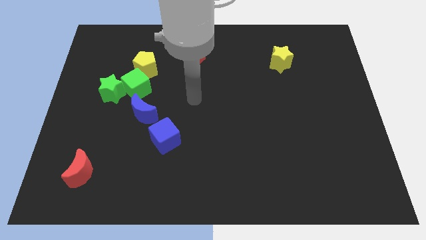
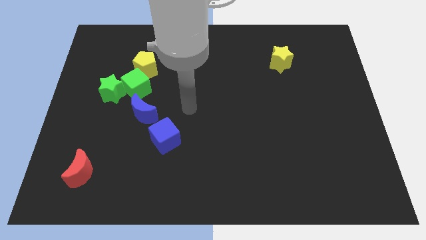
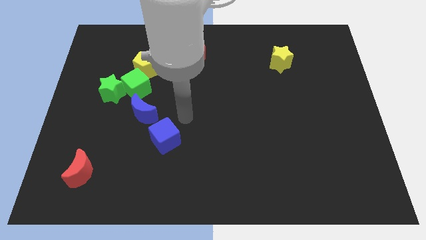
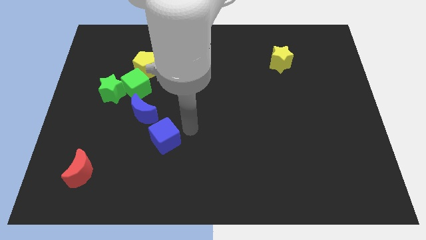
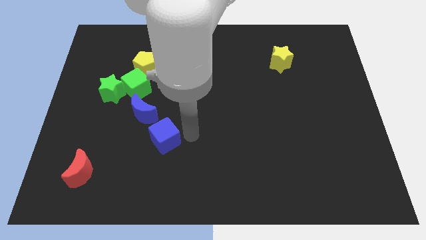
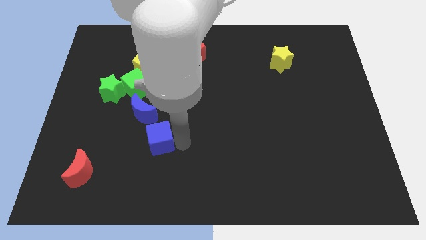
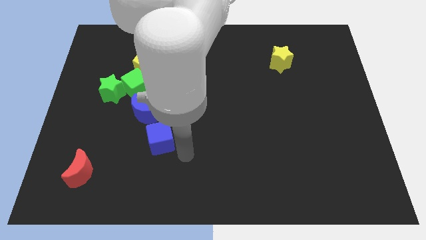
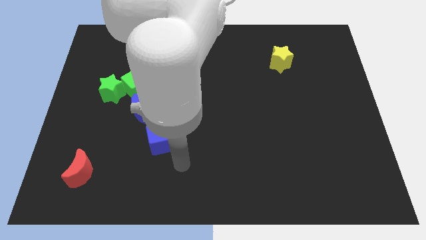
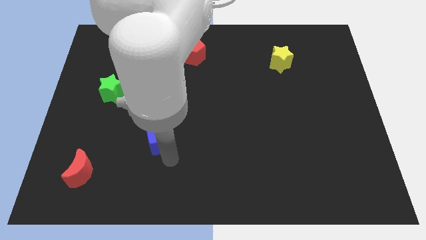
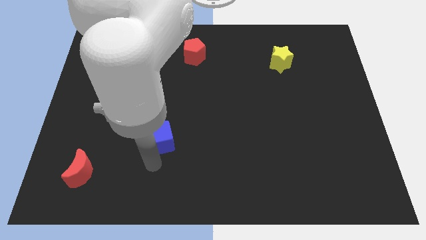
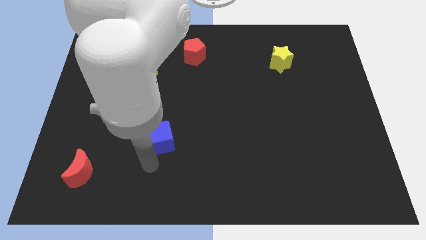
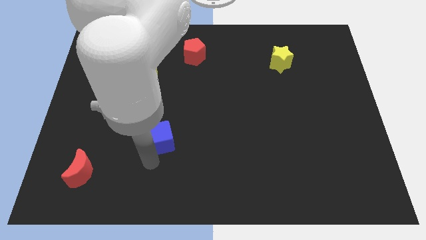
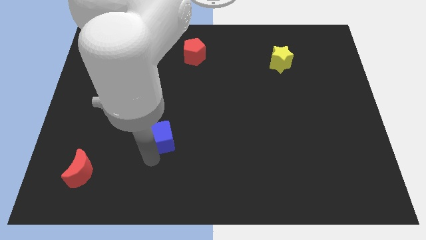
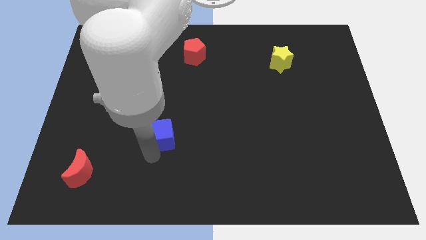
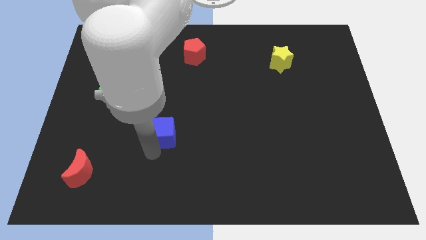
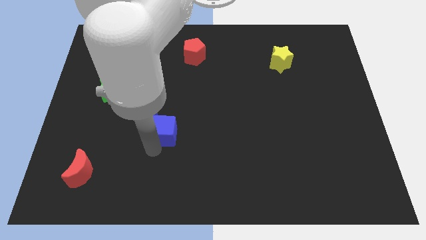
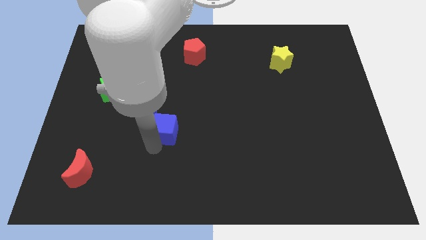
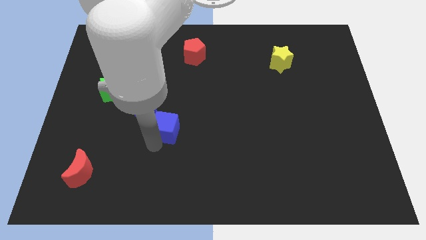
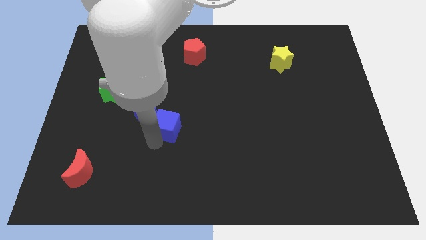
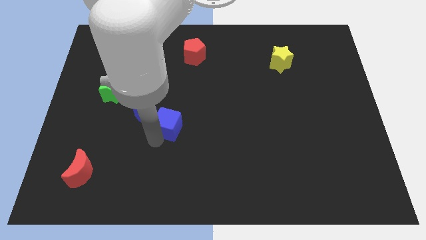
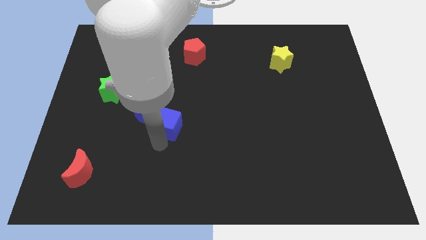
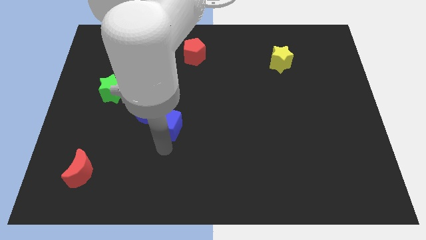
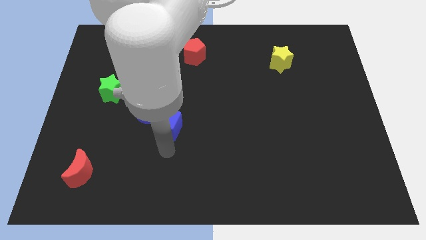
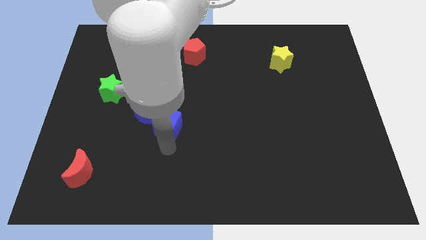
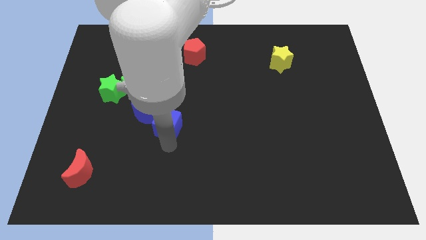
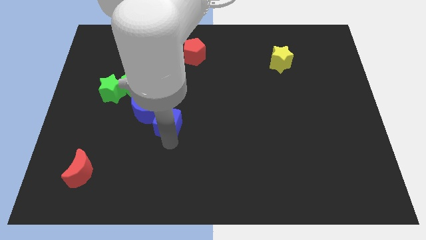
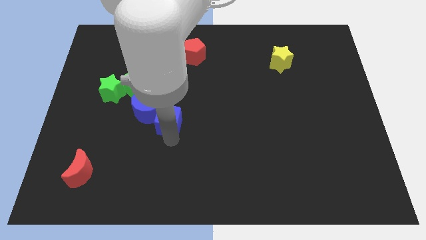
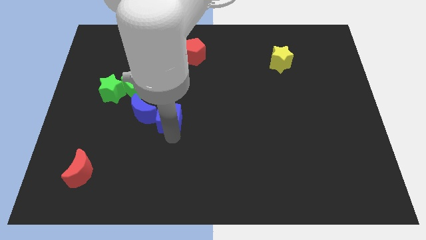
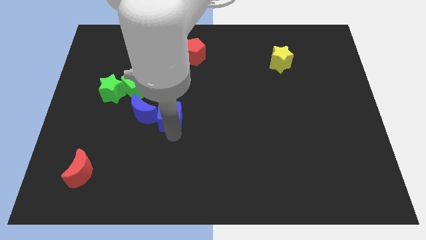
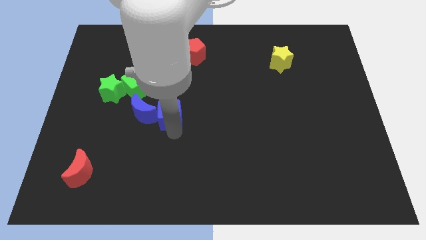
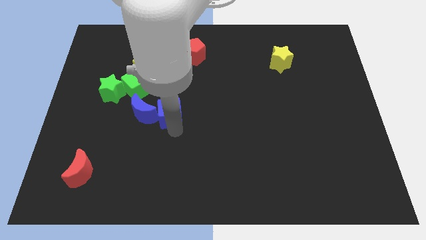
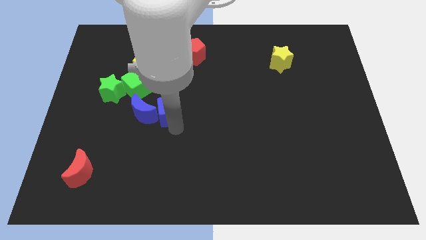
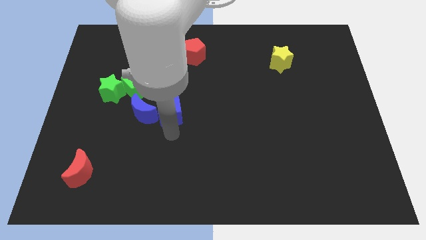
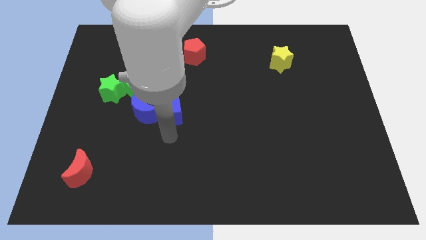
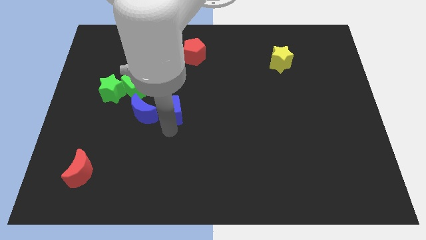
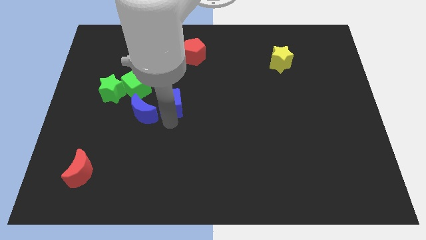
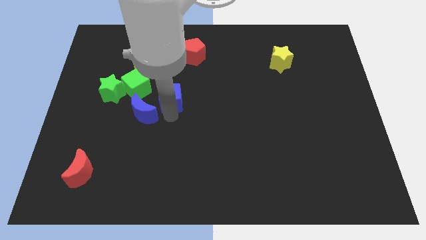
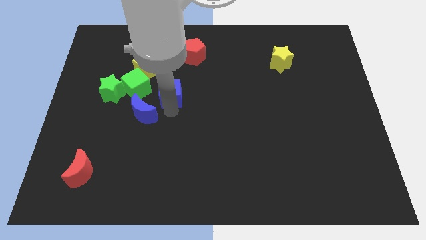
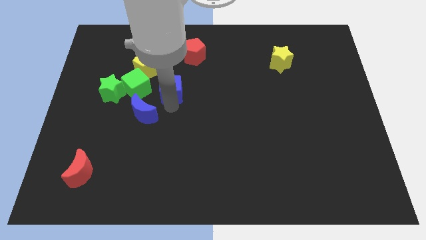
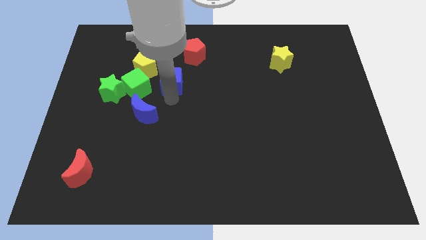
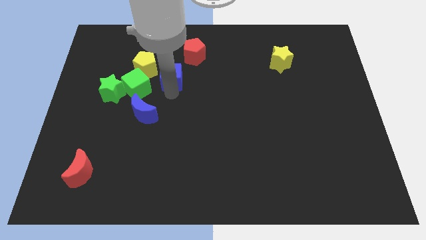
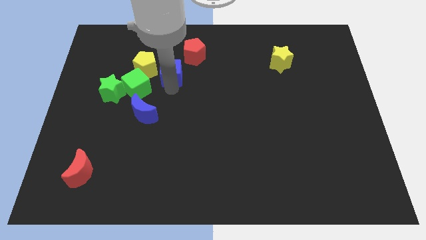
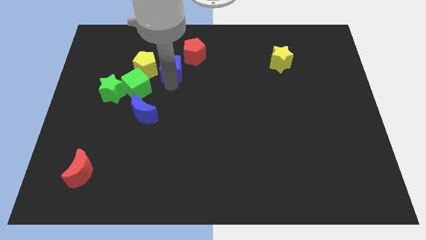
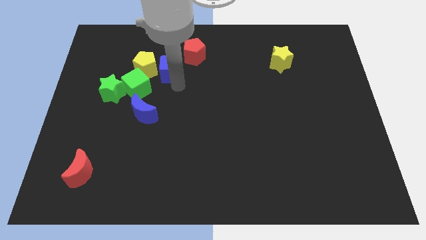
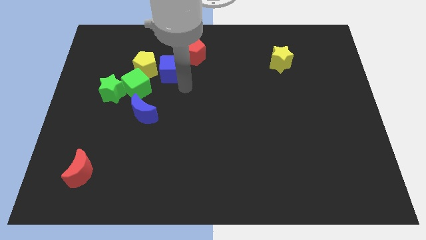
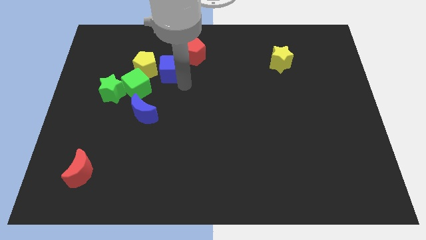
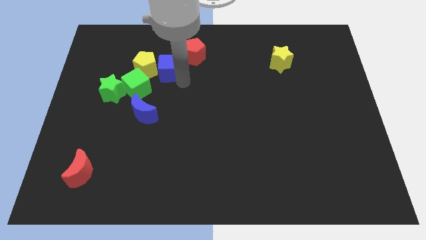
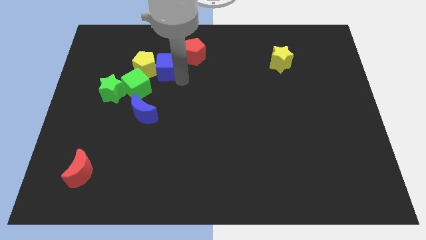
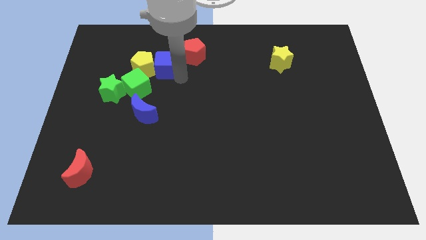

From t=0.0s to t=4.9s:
slide the blue cube to the left of the red pentagon

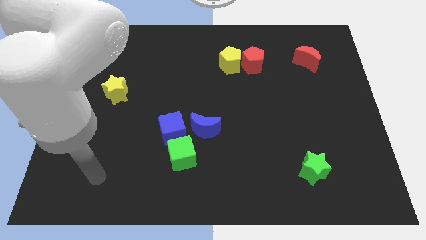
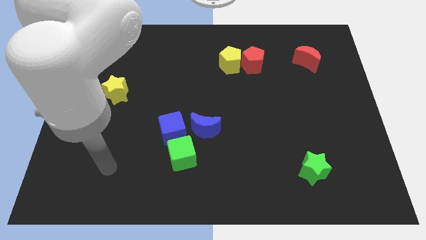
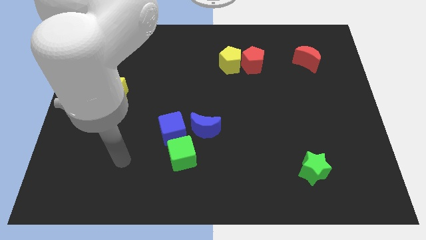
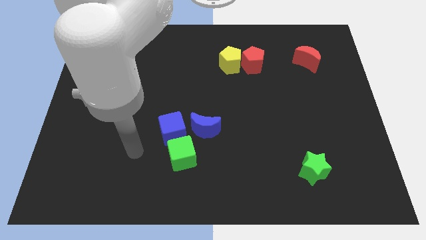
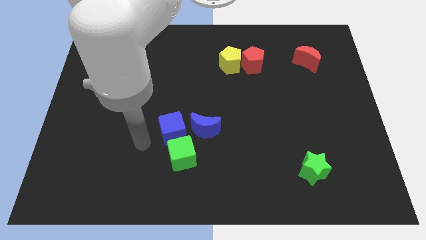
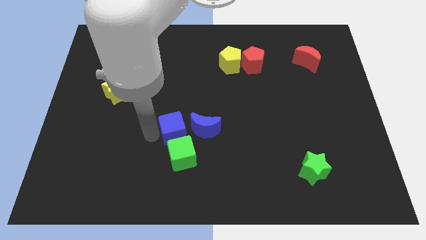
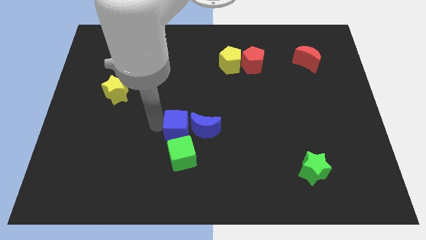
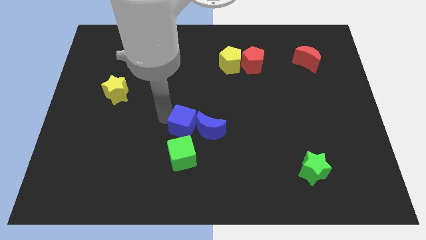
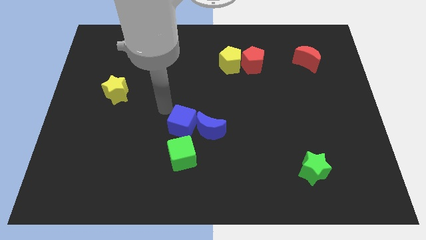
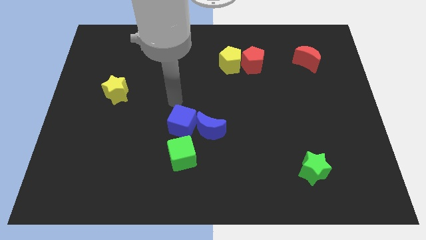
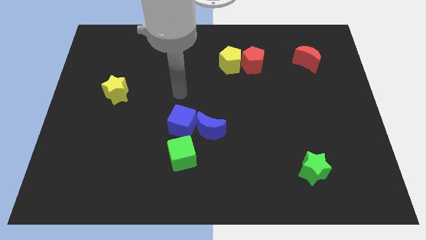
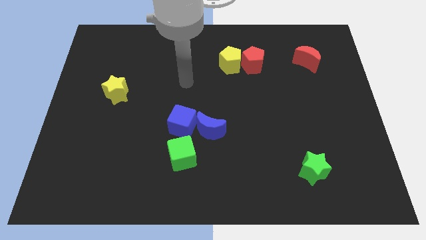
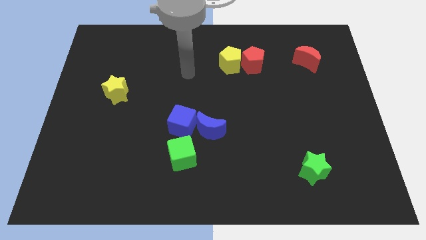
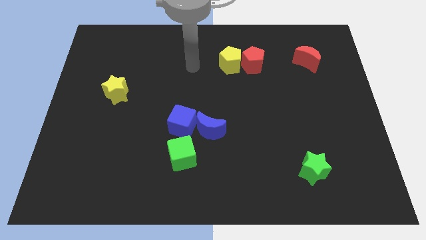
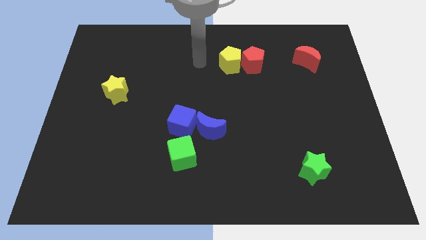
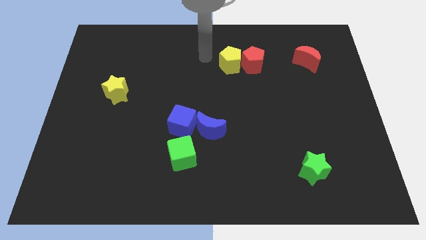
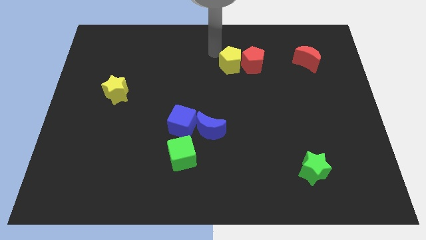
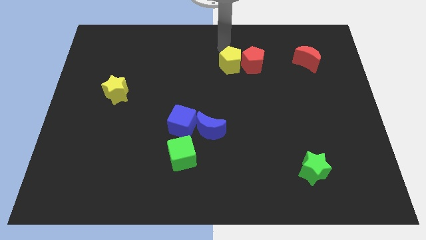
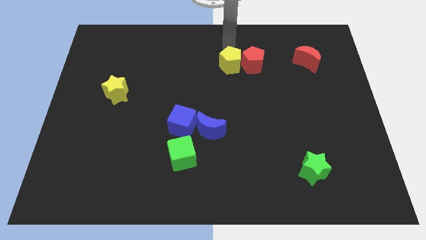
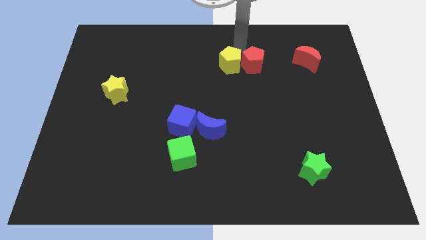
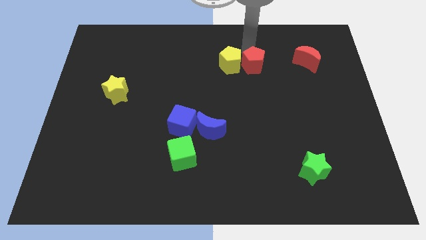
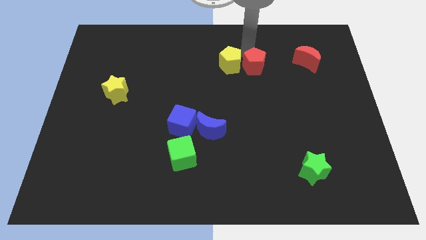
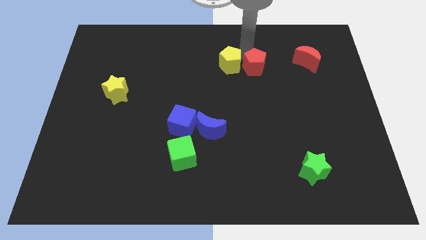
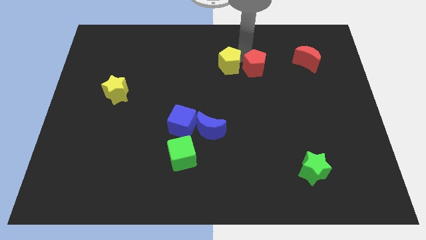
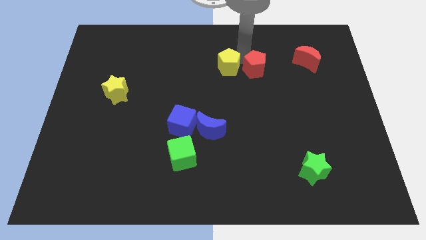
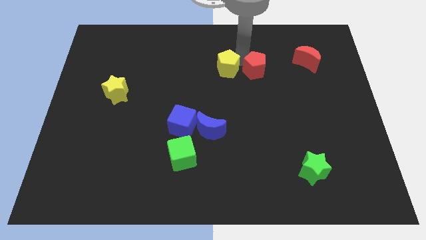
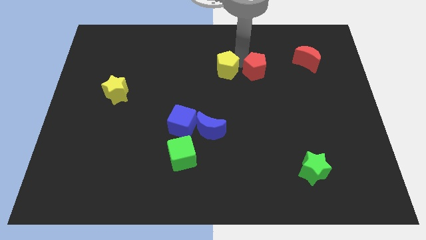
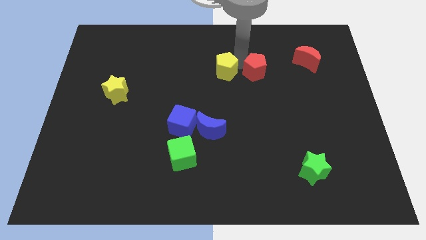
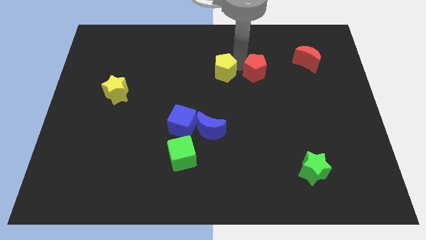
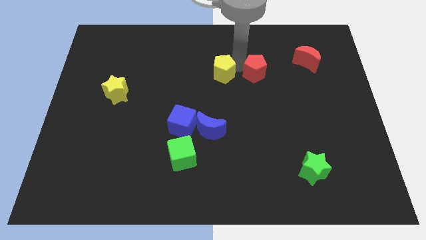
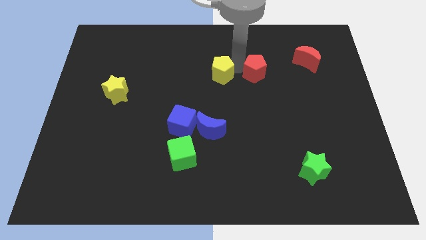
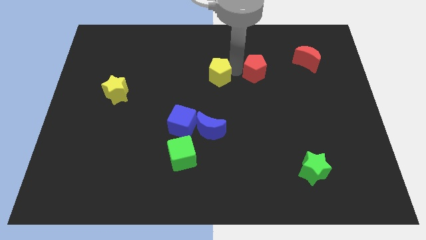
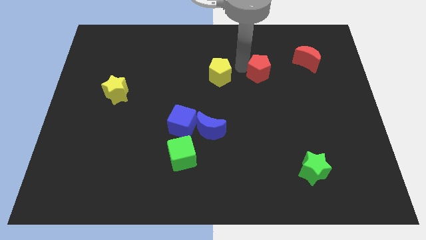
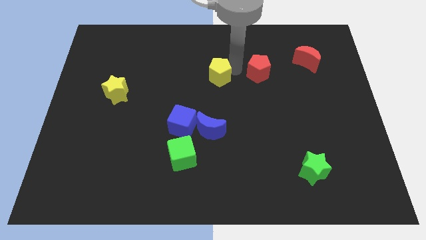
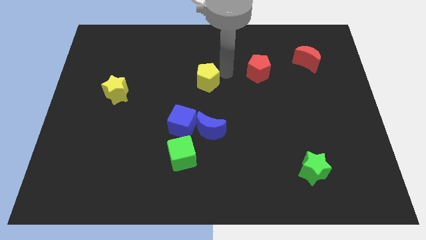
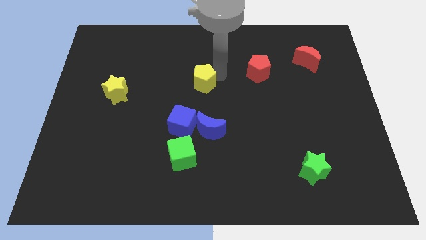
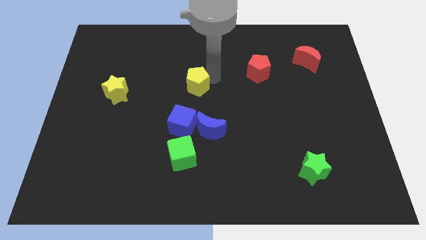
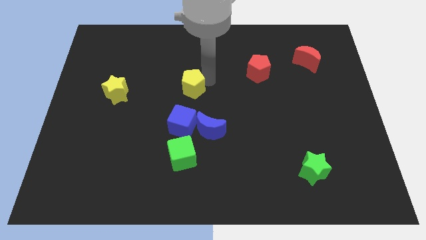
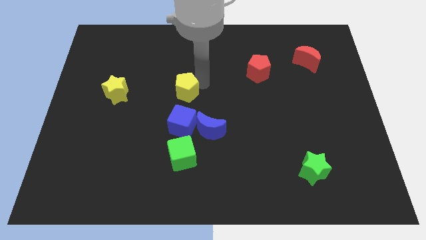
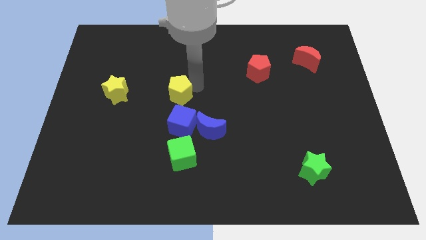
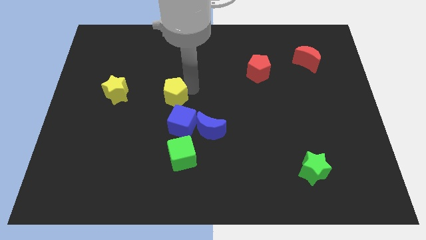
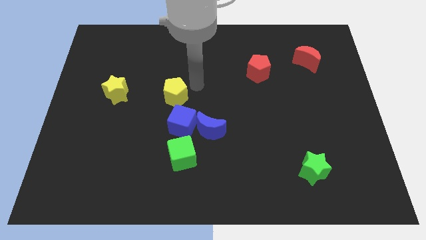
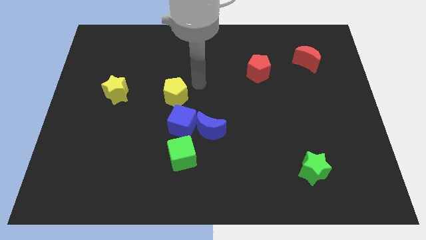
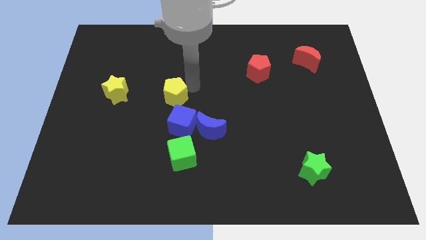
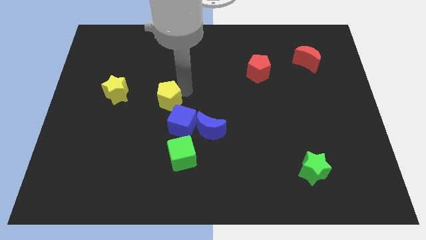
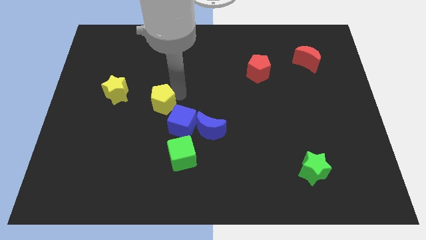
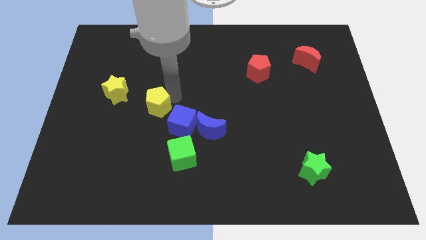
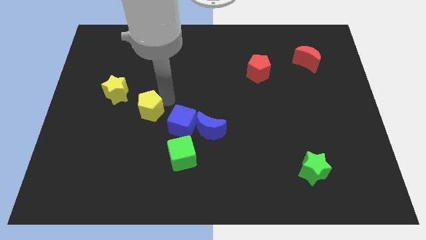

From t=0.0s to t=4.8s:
move the yellow pentagon just left of the blue cube
